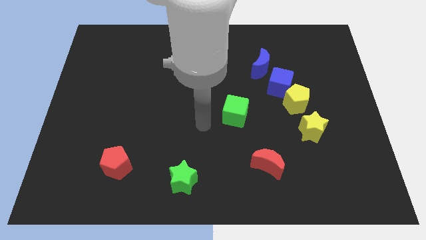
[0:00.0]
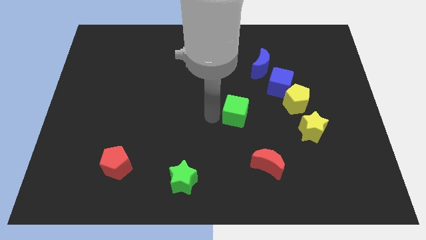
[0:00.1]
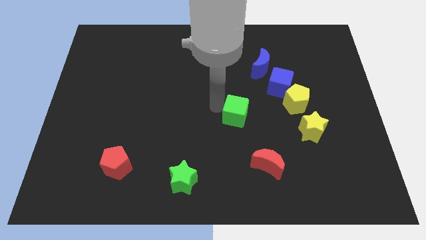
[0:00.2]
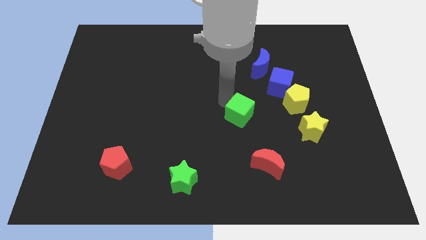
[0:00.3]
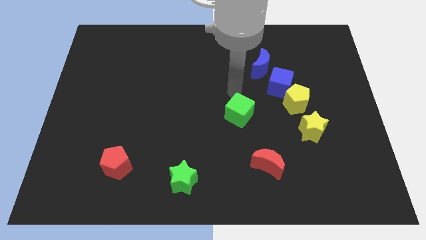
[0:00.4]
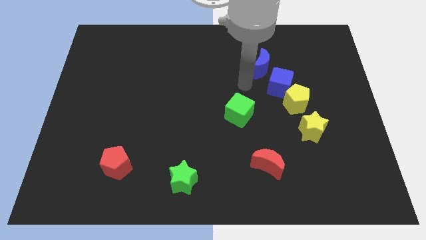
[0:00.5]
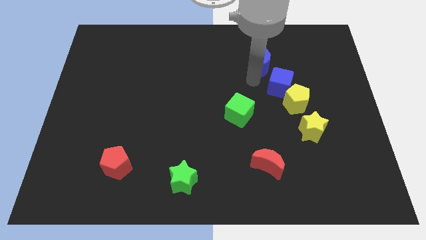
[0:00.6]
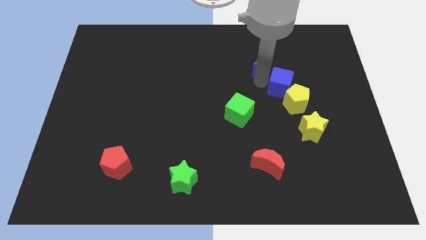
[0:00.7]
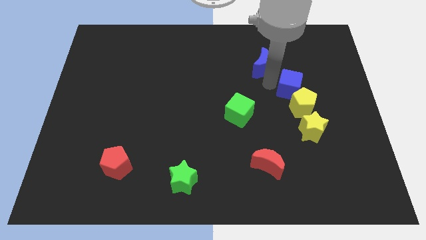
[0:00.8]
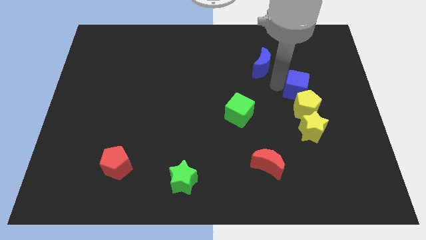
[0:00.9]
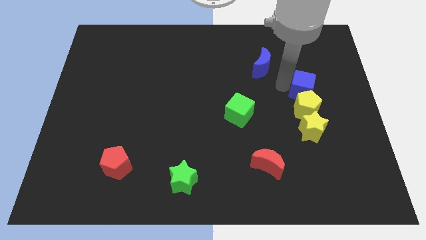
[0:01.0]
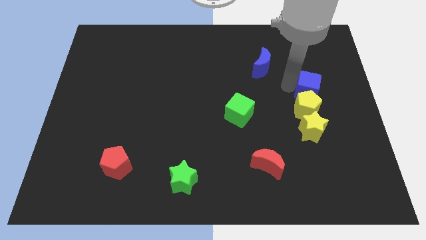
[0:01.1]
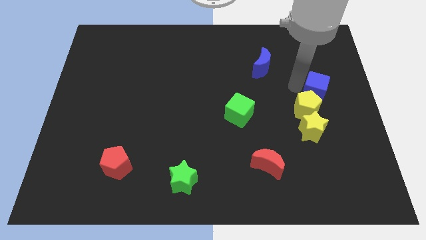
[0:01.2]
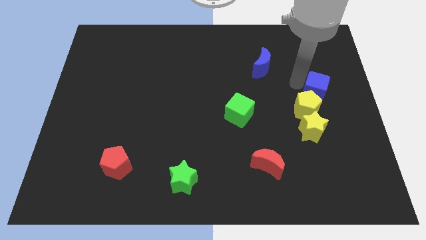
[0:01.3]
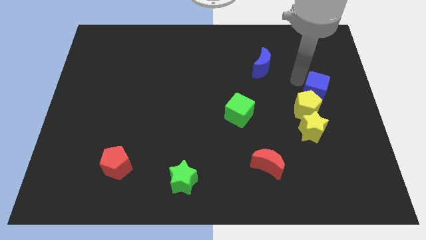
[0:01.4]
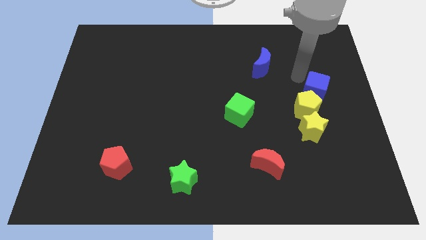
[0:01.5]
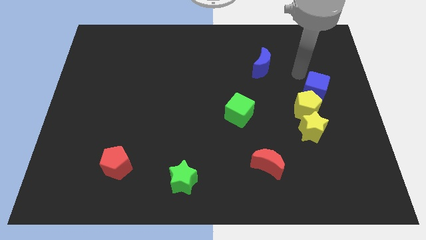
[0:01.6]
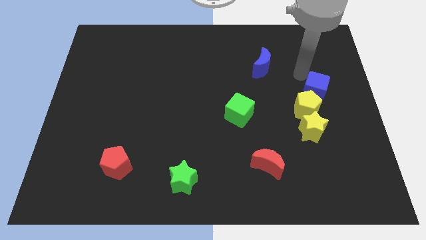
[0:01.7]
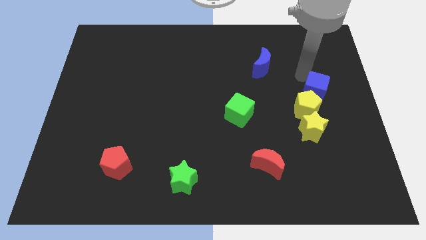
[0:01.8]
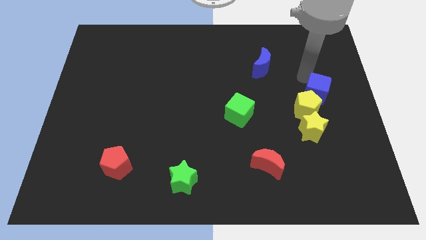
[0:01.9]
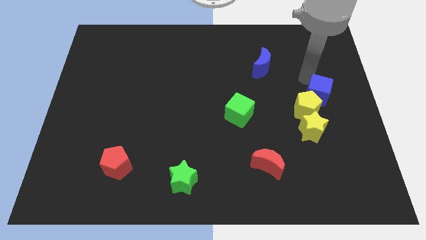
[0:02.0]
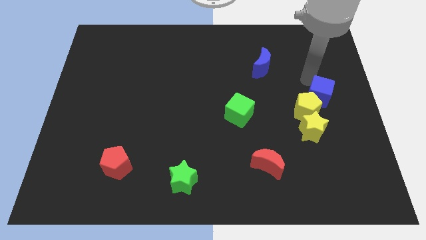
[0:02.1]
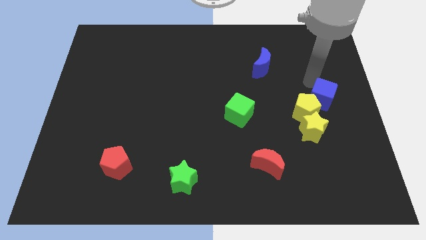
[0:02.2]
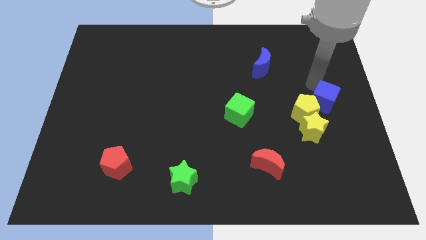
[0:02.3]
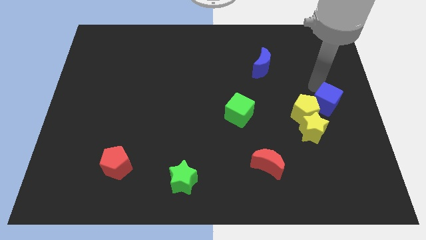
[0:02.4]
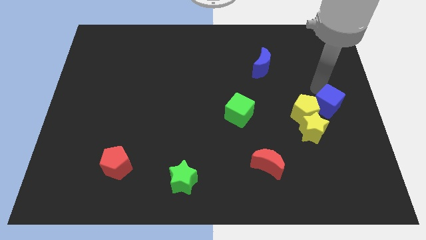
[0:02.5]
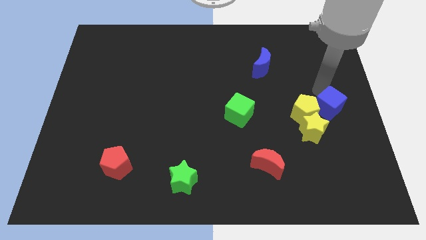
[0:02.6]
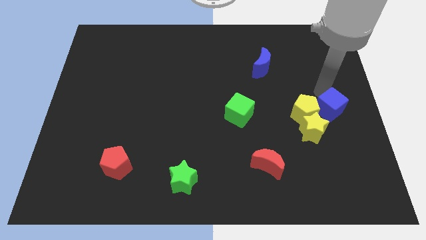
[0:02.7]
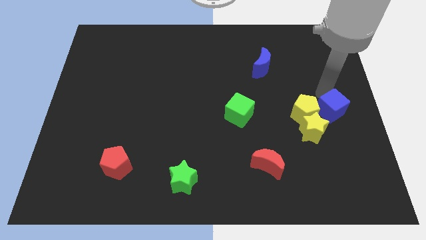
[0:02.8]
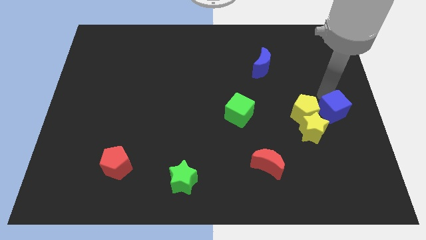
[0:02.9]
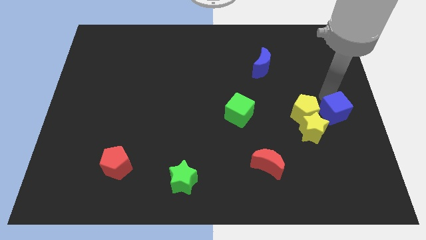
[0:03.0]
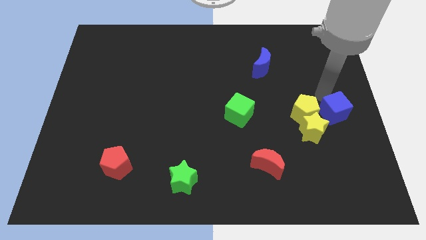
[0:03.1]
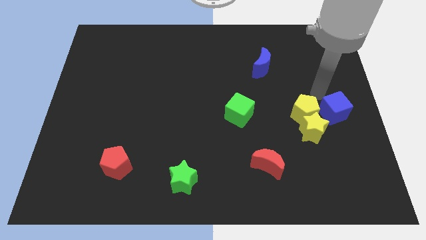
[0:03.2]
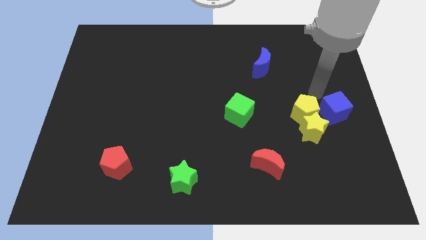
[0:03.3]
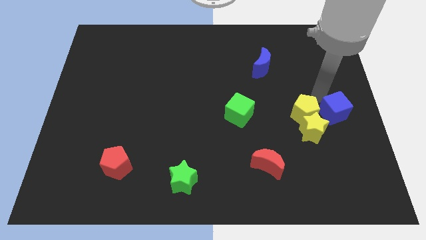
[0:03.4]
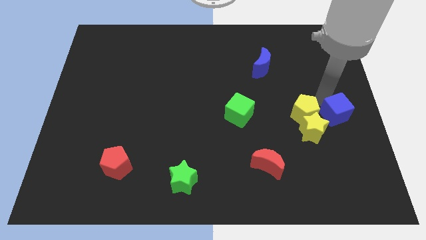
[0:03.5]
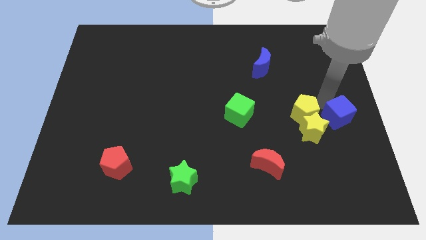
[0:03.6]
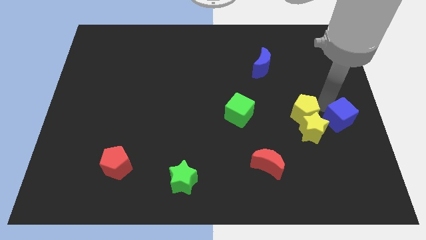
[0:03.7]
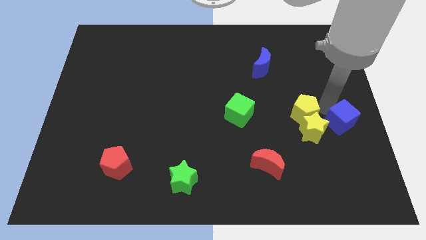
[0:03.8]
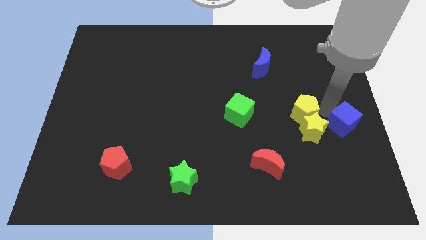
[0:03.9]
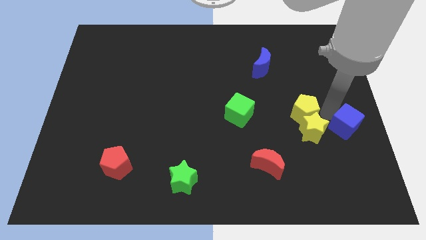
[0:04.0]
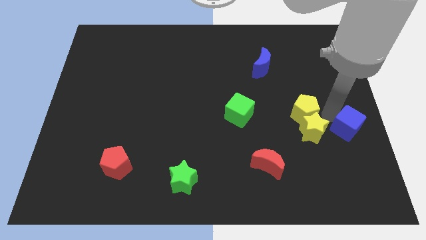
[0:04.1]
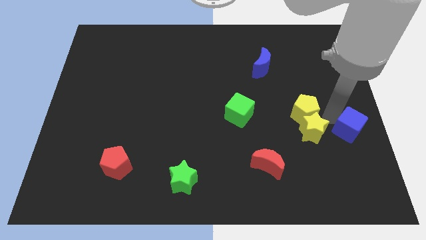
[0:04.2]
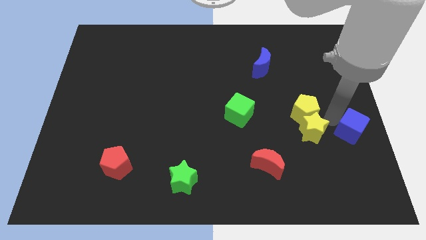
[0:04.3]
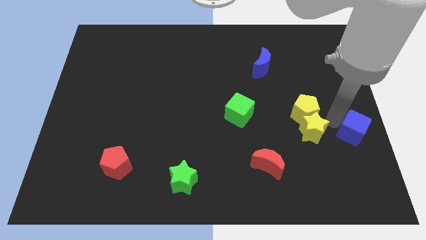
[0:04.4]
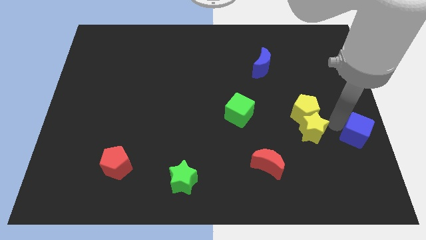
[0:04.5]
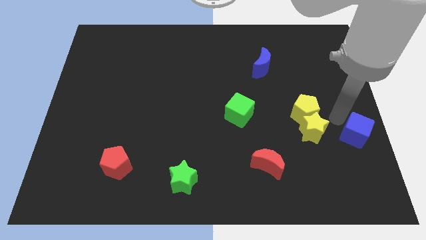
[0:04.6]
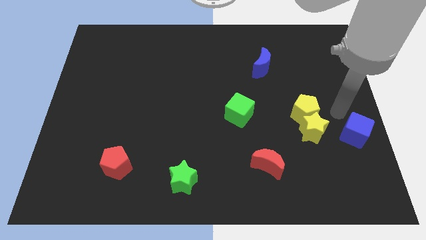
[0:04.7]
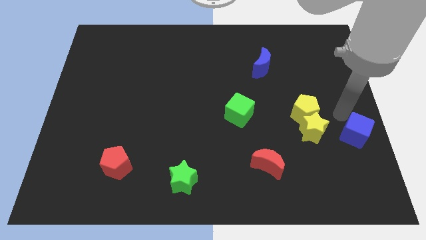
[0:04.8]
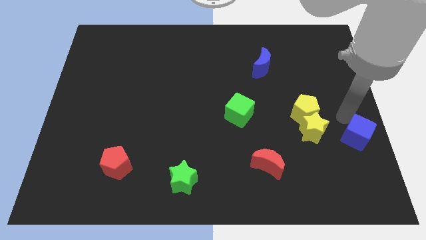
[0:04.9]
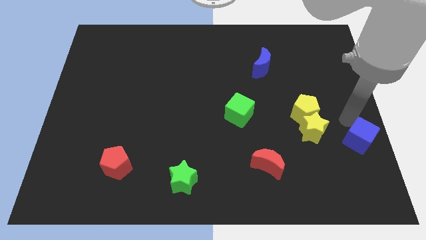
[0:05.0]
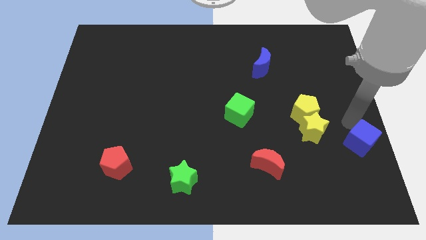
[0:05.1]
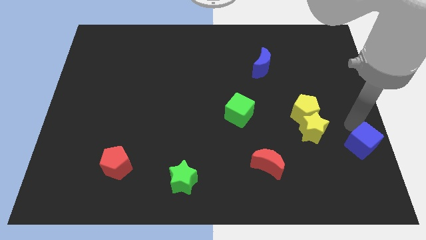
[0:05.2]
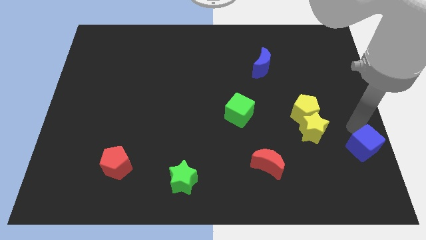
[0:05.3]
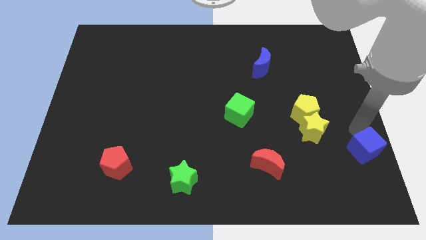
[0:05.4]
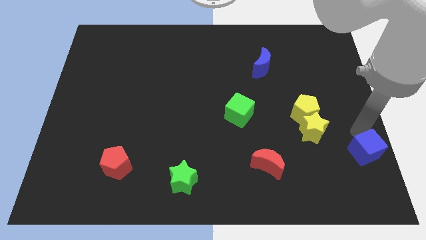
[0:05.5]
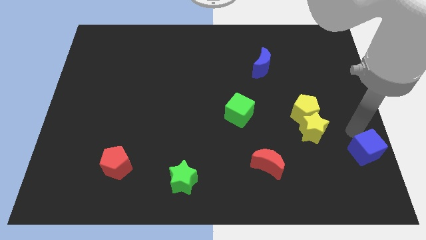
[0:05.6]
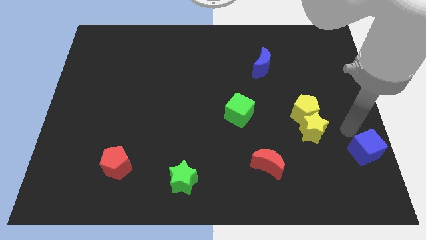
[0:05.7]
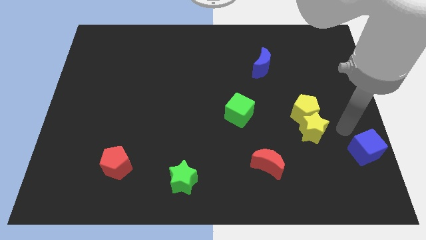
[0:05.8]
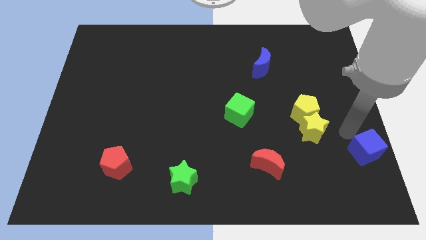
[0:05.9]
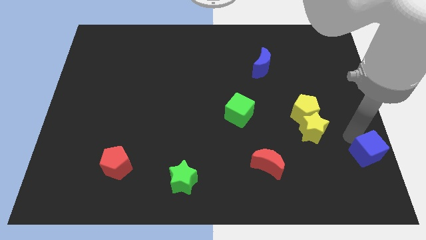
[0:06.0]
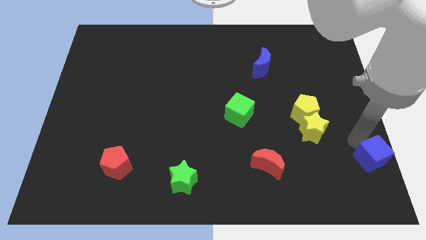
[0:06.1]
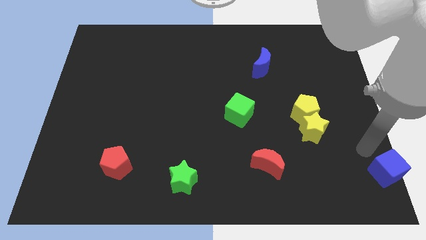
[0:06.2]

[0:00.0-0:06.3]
put the blue cube to the lower right corner
